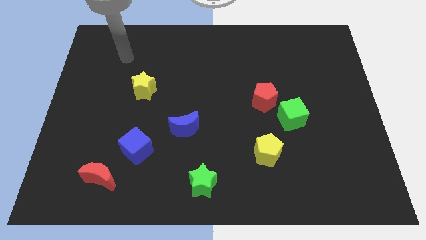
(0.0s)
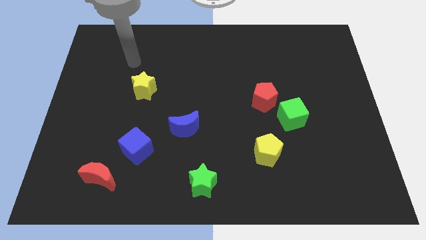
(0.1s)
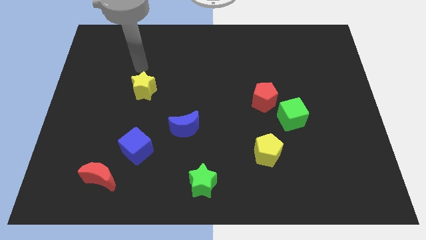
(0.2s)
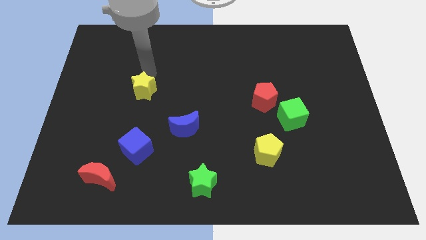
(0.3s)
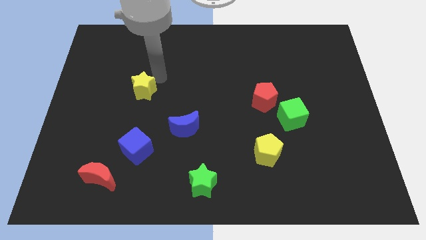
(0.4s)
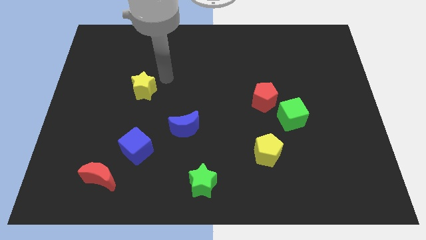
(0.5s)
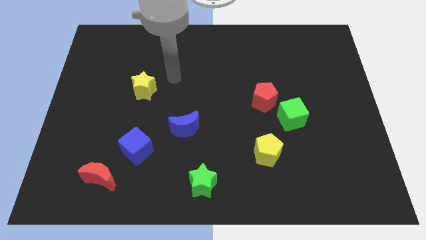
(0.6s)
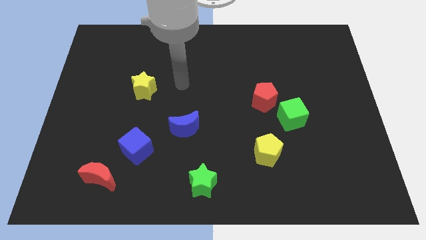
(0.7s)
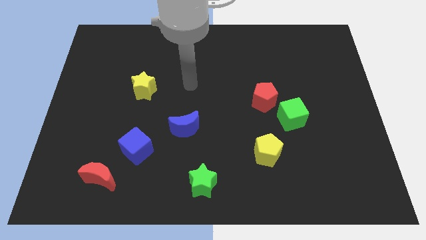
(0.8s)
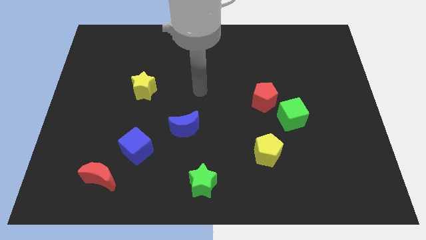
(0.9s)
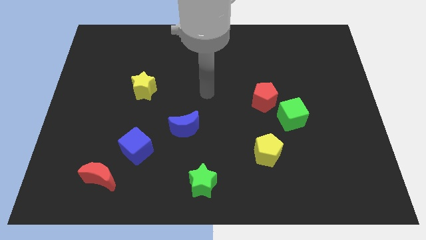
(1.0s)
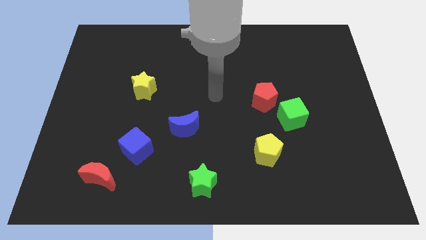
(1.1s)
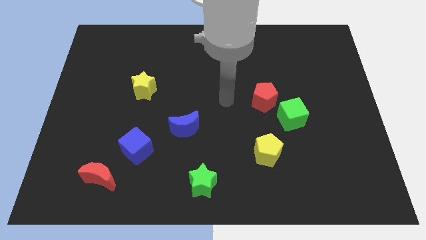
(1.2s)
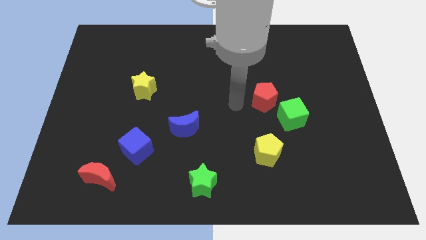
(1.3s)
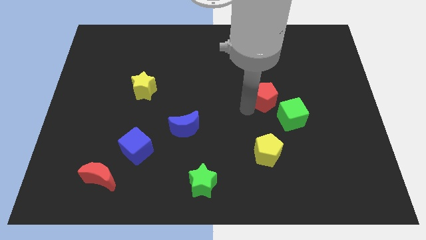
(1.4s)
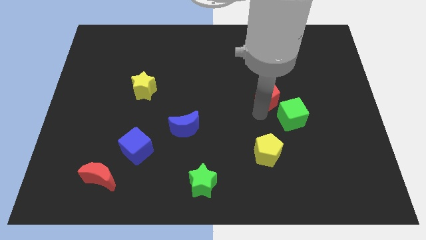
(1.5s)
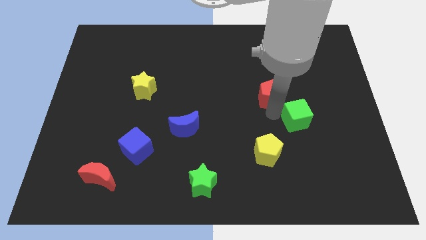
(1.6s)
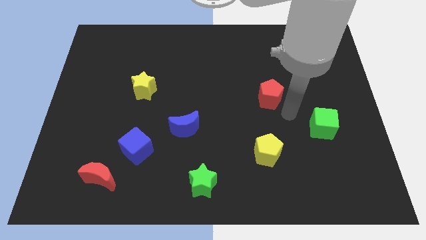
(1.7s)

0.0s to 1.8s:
pull the red pentagon apart from the green cube

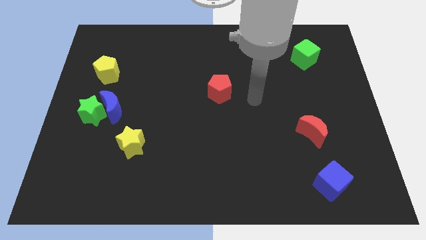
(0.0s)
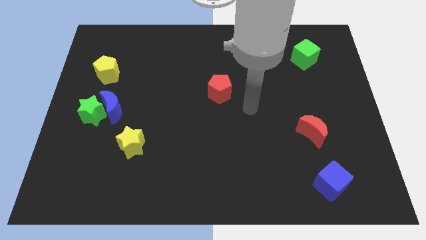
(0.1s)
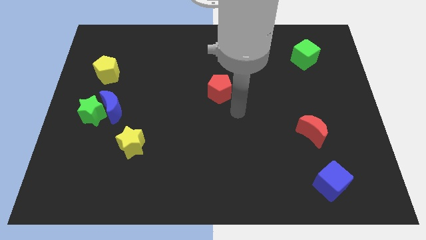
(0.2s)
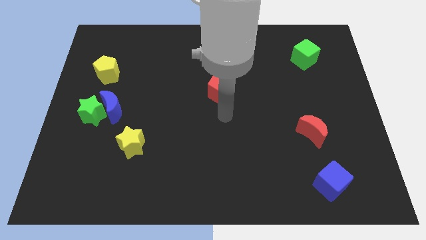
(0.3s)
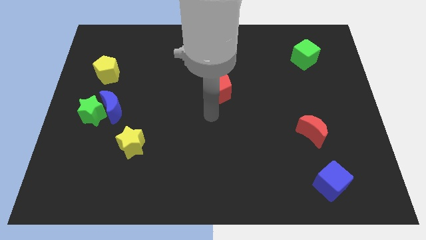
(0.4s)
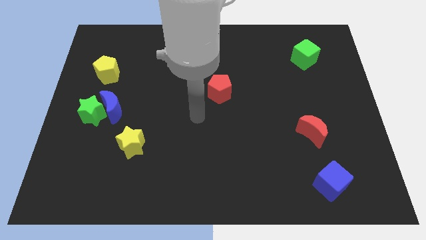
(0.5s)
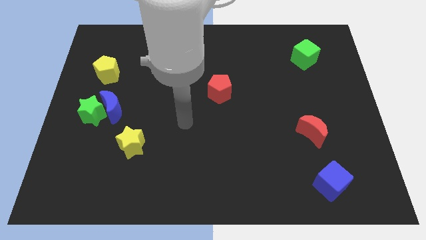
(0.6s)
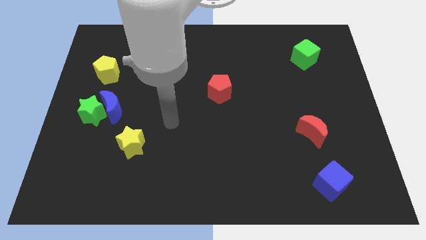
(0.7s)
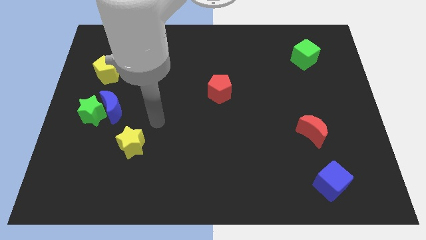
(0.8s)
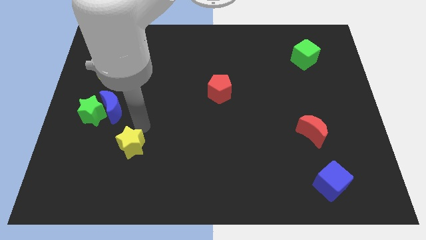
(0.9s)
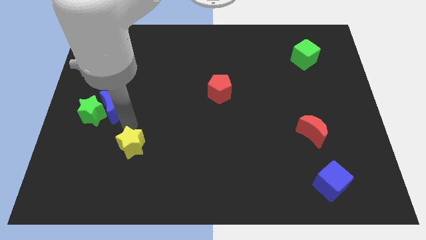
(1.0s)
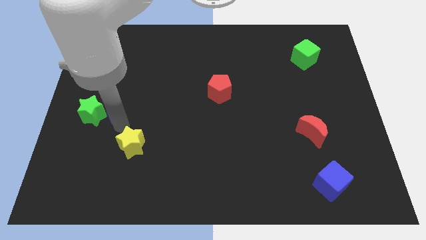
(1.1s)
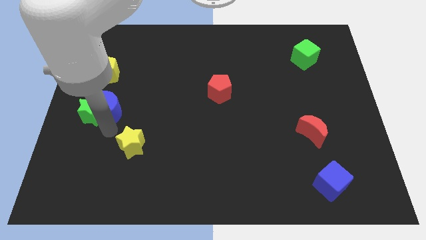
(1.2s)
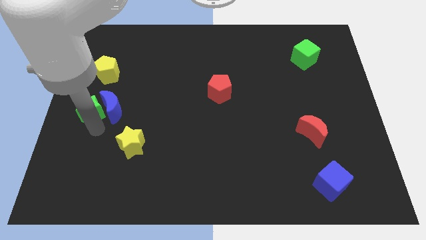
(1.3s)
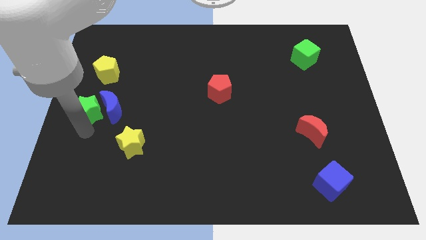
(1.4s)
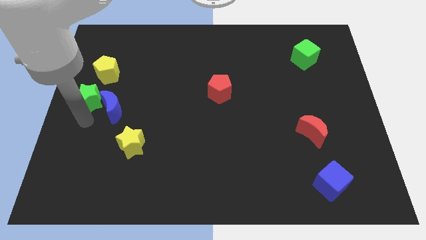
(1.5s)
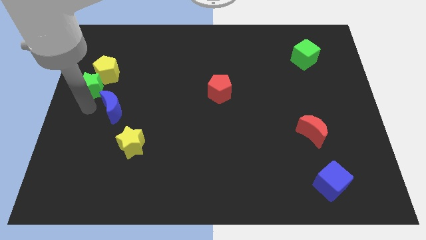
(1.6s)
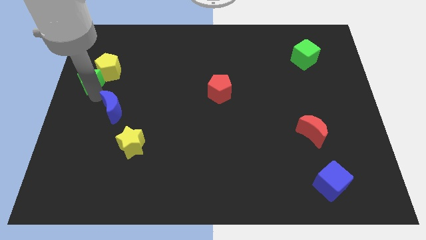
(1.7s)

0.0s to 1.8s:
move the blue moon away from the green star

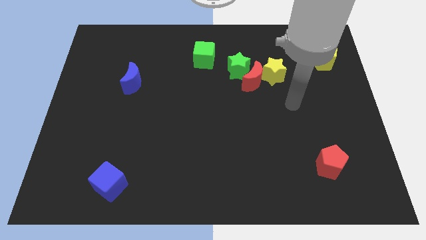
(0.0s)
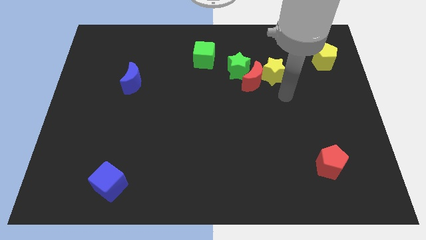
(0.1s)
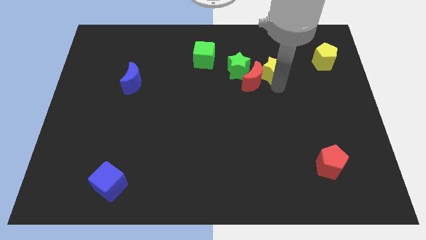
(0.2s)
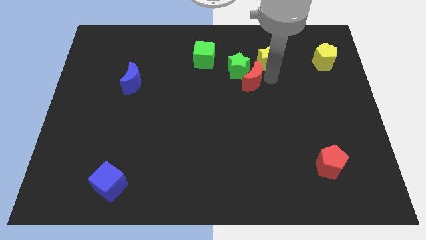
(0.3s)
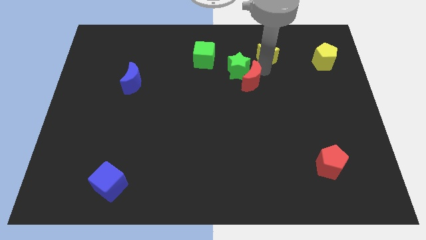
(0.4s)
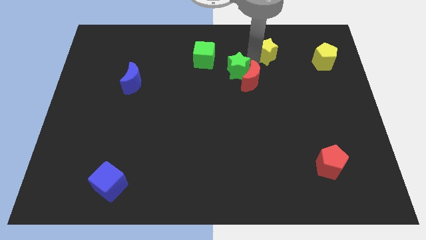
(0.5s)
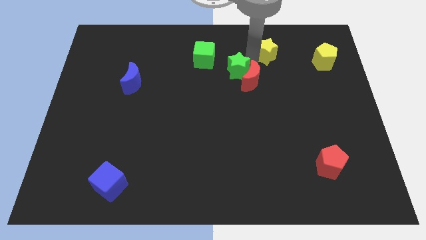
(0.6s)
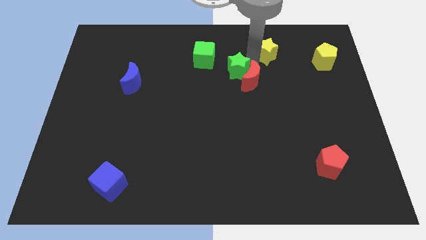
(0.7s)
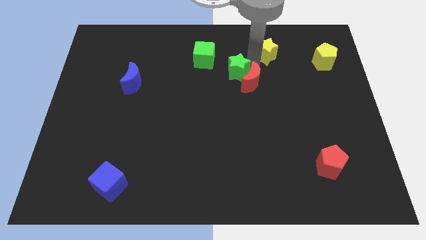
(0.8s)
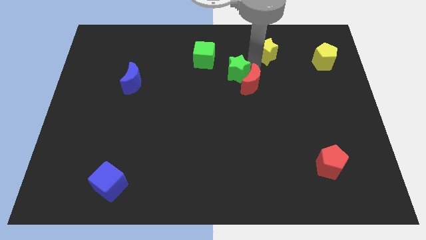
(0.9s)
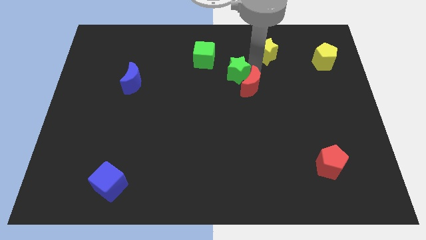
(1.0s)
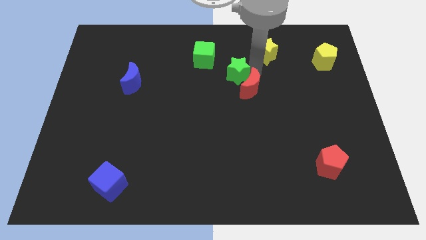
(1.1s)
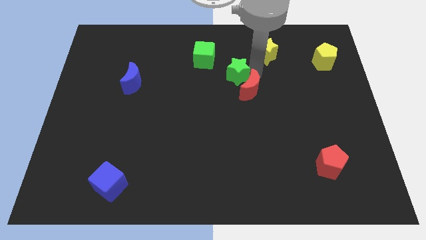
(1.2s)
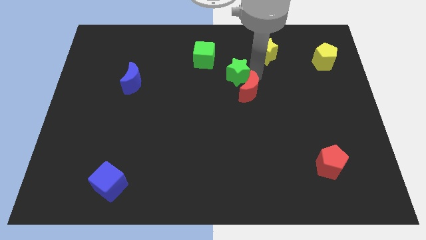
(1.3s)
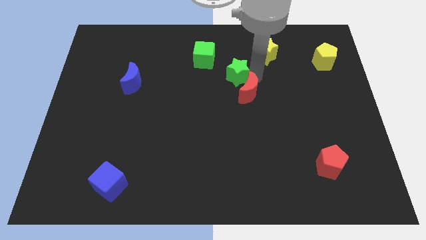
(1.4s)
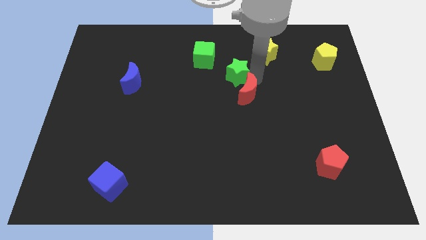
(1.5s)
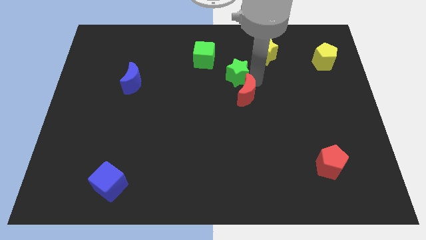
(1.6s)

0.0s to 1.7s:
pull the red moon apart from the green star and yellow star

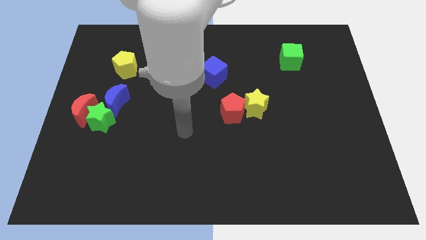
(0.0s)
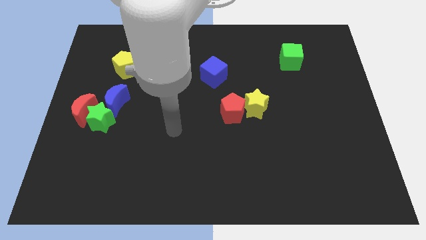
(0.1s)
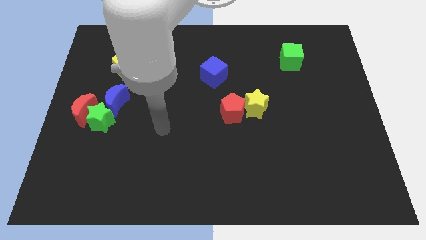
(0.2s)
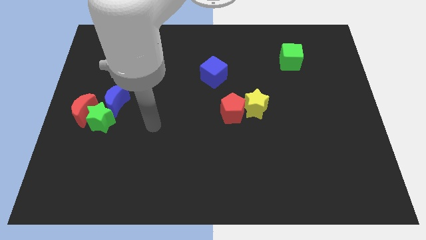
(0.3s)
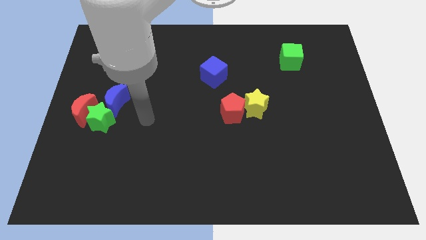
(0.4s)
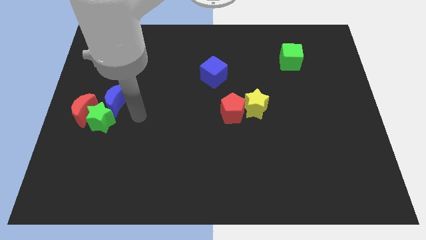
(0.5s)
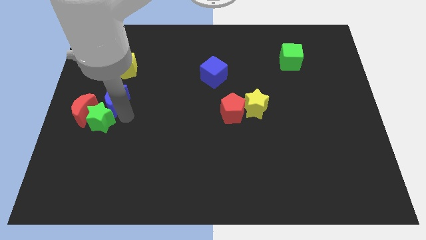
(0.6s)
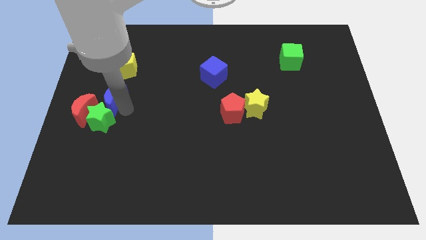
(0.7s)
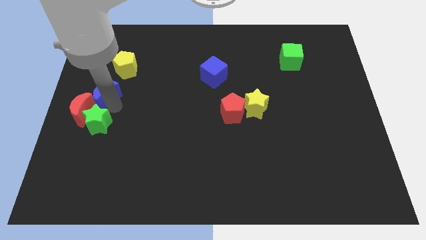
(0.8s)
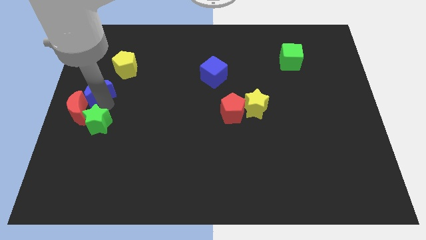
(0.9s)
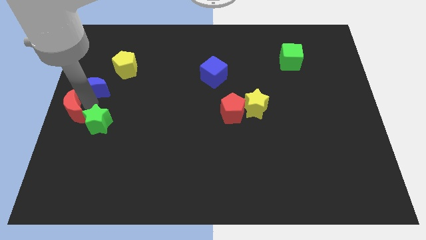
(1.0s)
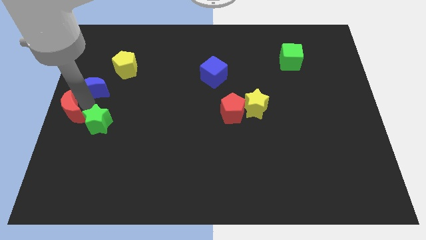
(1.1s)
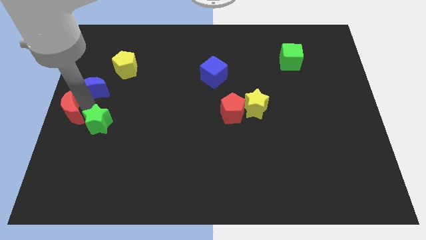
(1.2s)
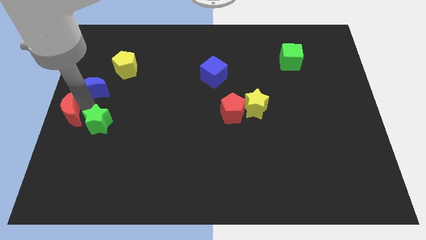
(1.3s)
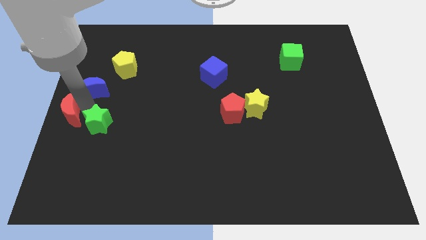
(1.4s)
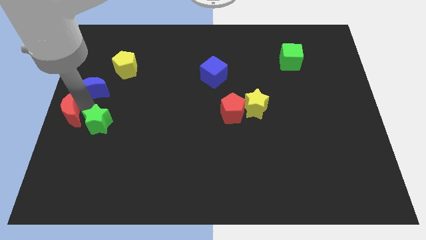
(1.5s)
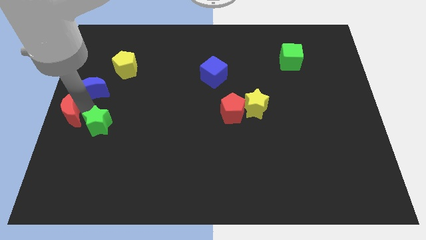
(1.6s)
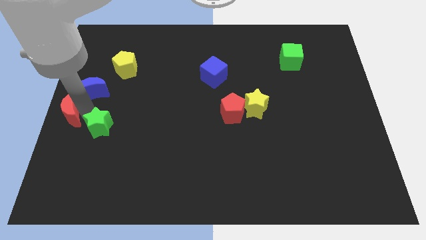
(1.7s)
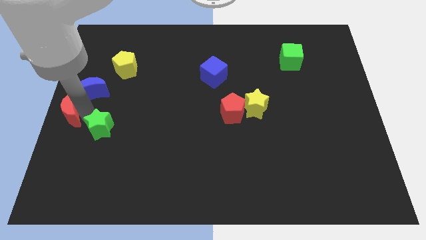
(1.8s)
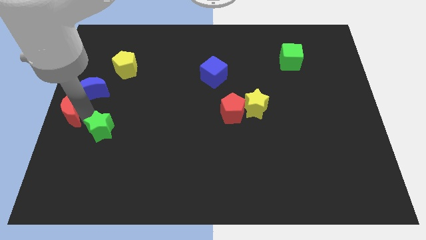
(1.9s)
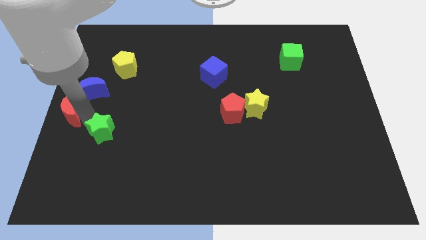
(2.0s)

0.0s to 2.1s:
pull the green star apart from the red moon and blue moon

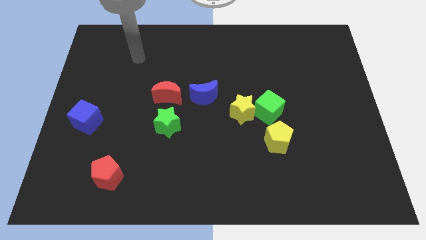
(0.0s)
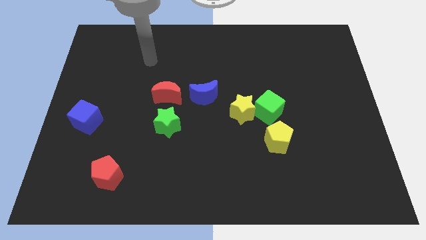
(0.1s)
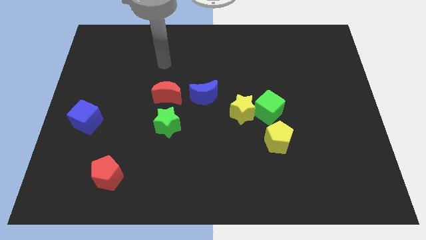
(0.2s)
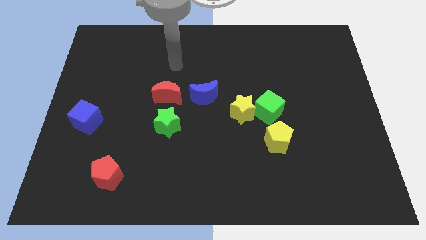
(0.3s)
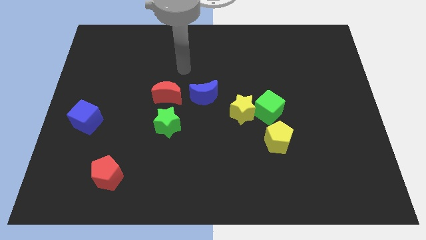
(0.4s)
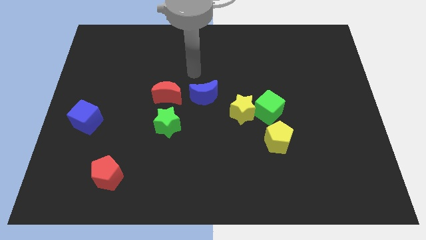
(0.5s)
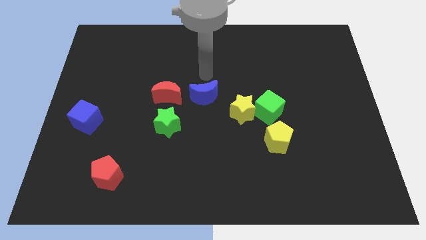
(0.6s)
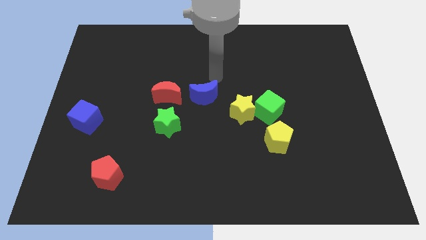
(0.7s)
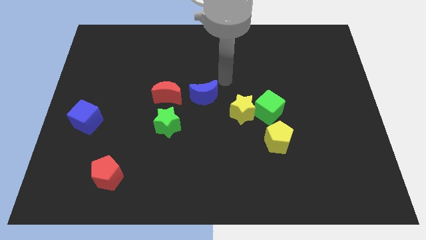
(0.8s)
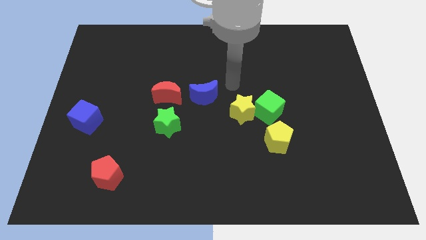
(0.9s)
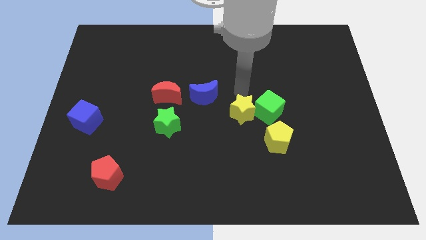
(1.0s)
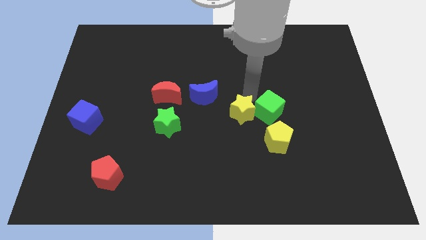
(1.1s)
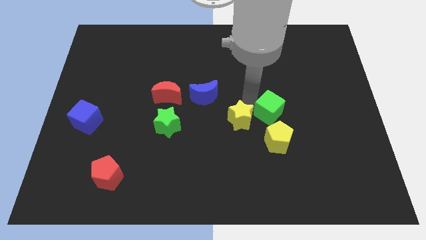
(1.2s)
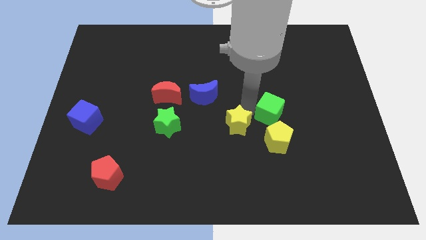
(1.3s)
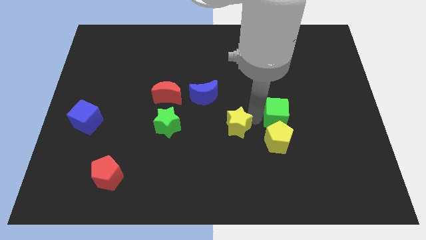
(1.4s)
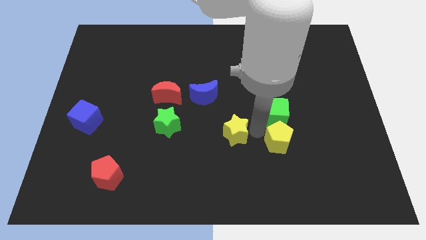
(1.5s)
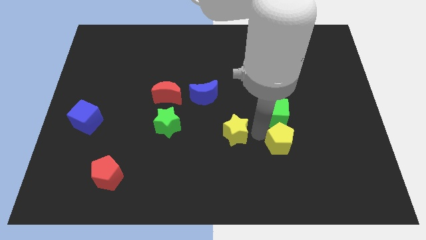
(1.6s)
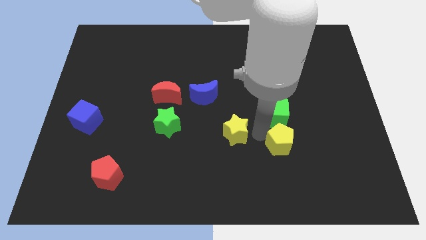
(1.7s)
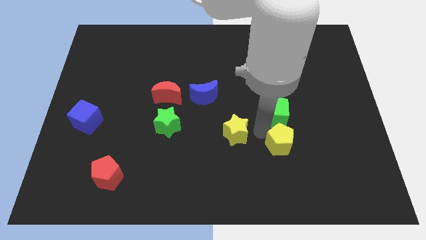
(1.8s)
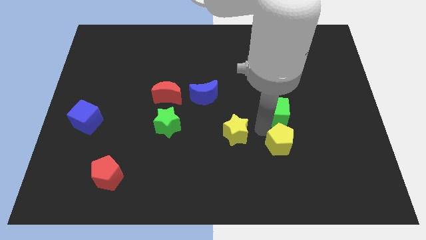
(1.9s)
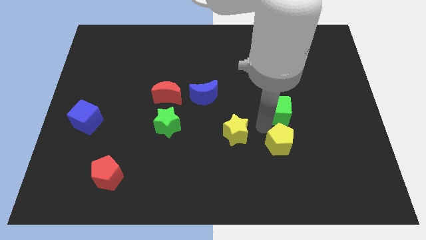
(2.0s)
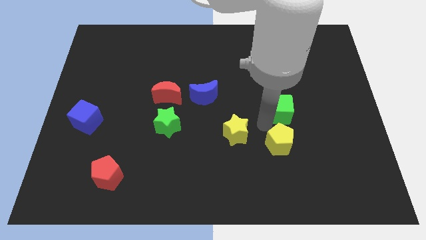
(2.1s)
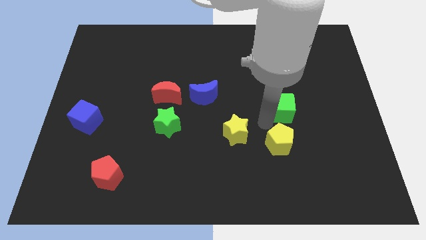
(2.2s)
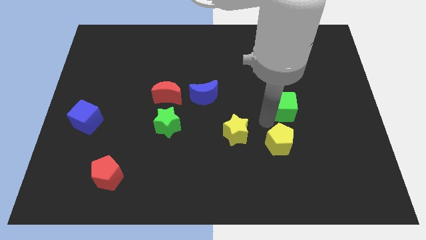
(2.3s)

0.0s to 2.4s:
move the green cube away from the yellow star and yellow pentagon
